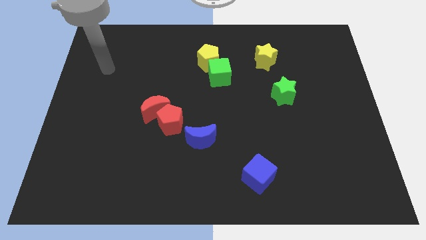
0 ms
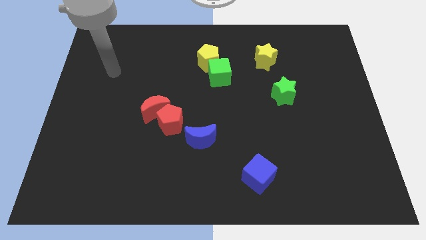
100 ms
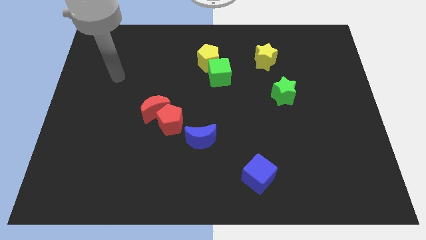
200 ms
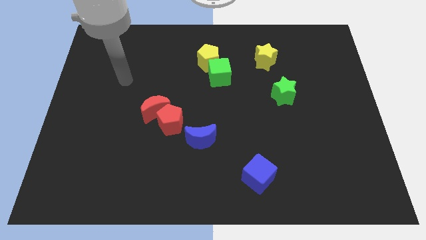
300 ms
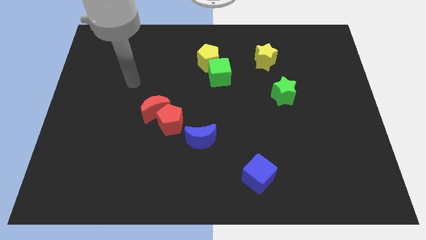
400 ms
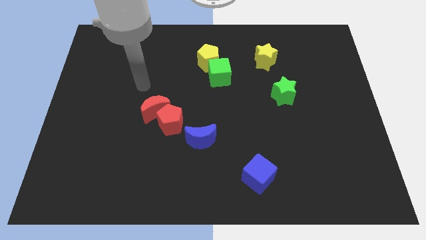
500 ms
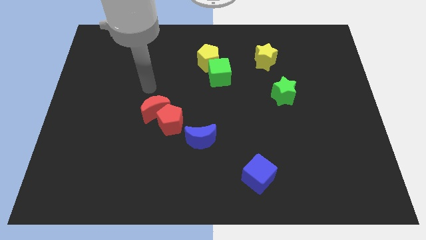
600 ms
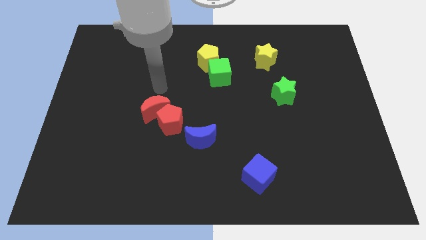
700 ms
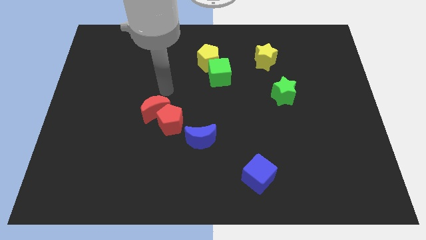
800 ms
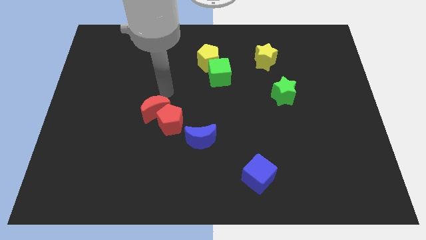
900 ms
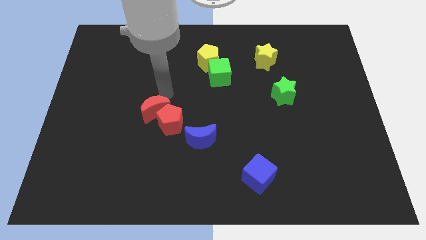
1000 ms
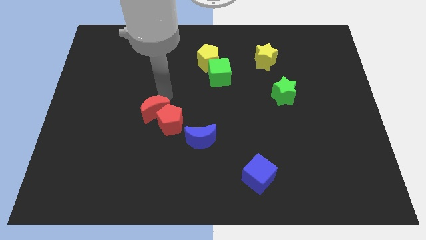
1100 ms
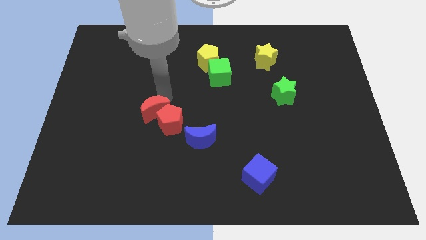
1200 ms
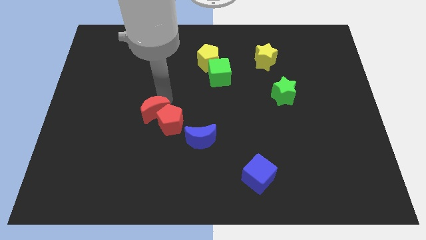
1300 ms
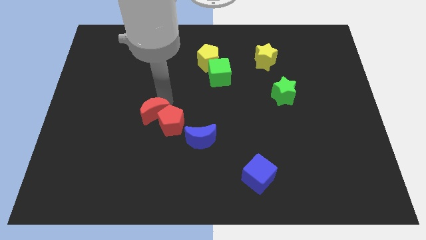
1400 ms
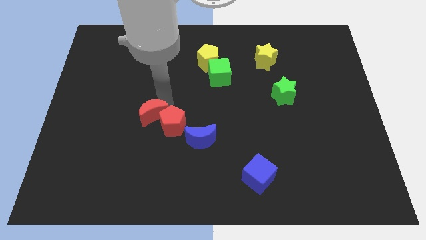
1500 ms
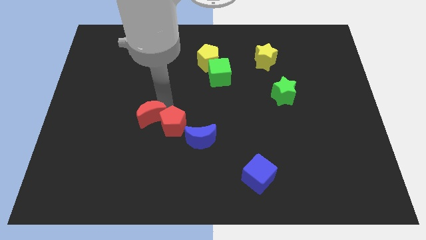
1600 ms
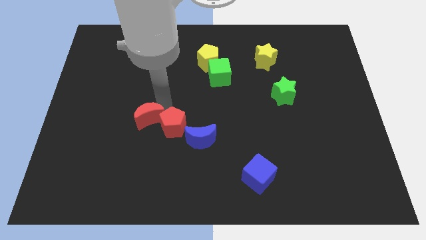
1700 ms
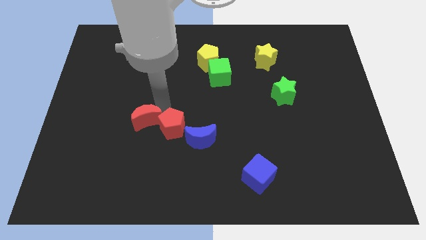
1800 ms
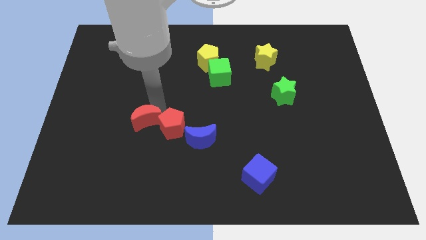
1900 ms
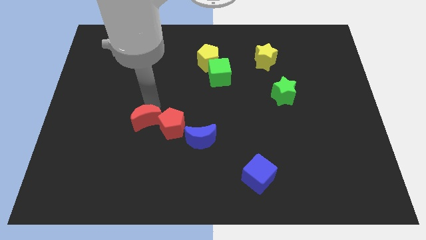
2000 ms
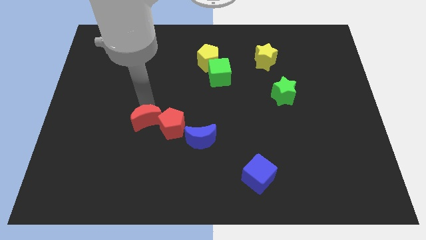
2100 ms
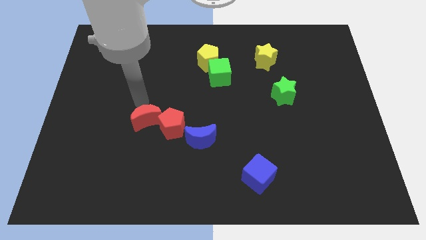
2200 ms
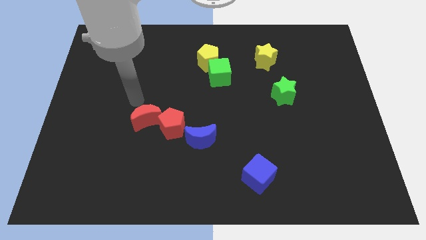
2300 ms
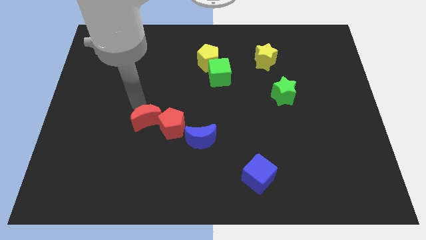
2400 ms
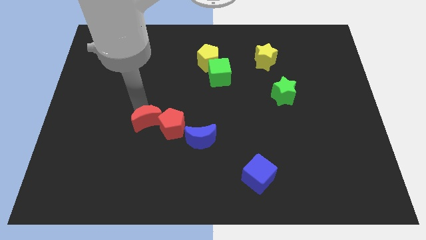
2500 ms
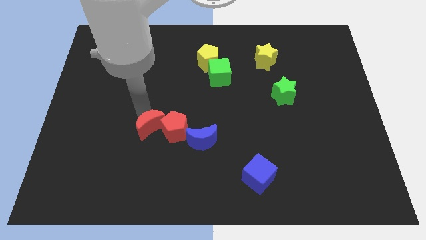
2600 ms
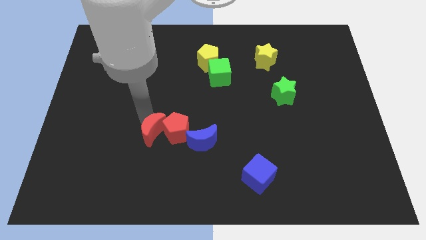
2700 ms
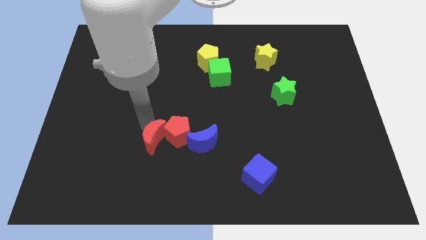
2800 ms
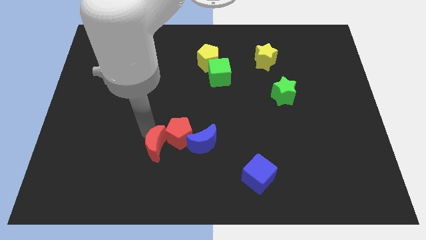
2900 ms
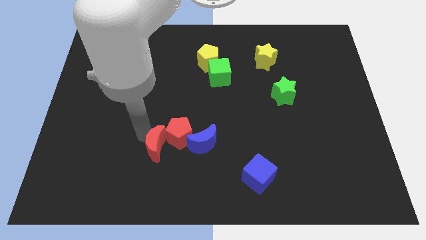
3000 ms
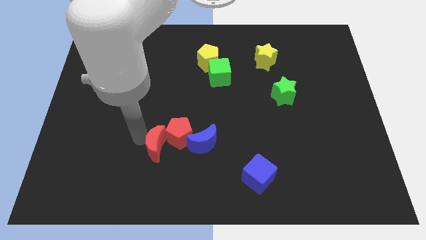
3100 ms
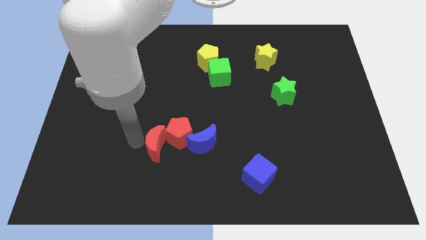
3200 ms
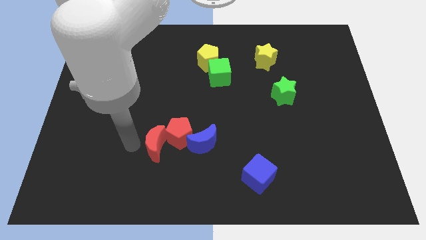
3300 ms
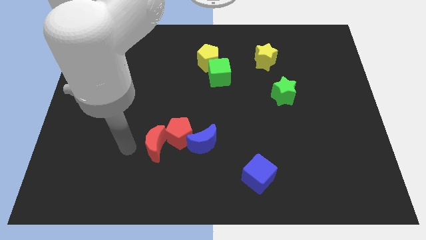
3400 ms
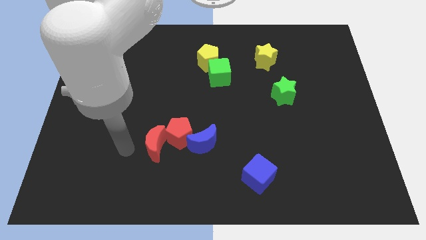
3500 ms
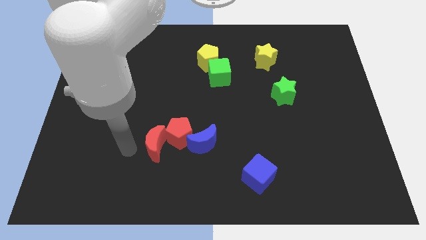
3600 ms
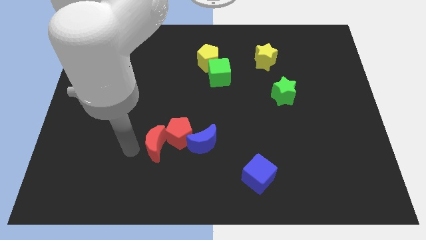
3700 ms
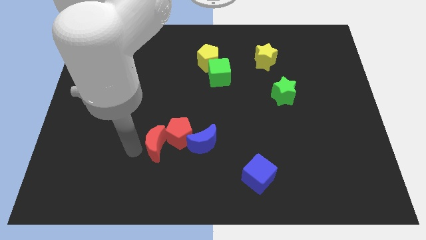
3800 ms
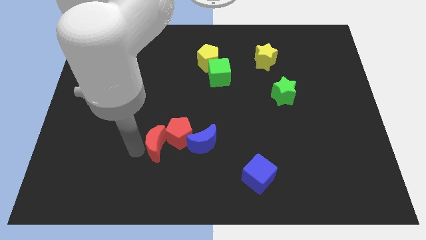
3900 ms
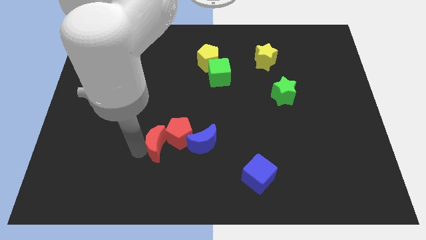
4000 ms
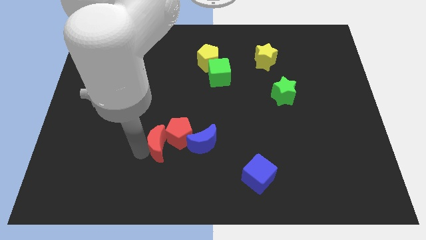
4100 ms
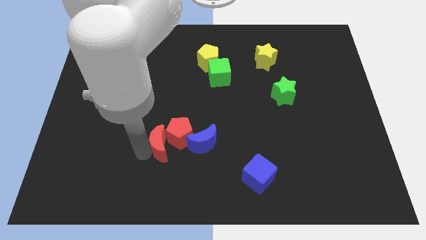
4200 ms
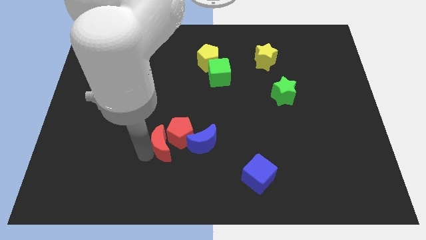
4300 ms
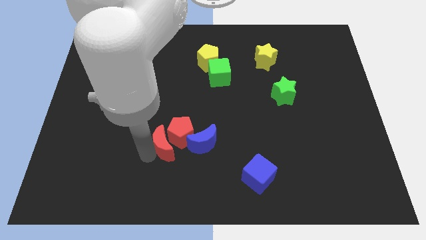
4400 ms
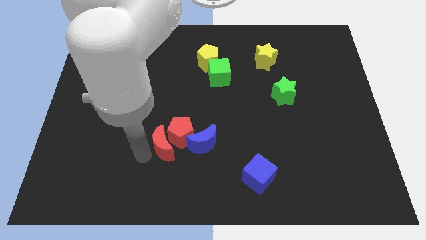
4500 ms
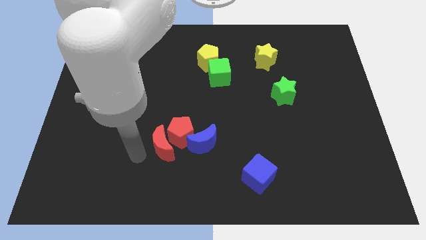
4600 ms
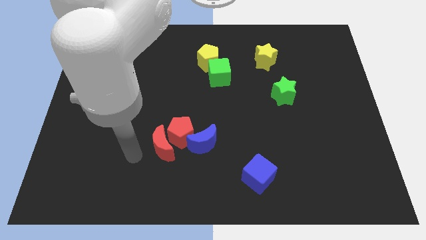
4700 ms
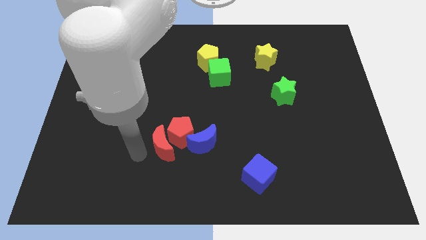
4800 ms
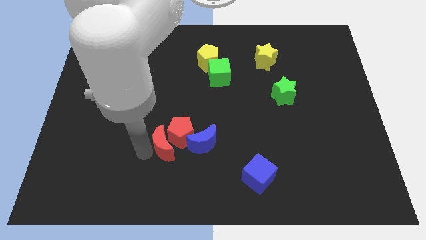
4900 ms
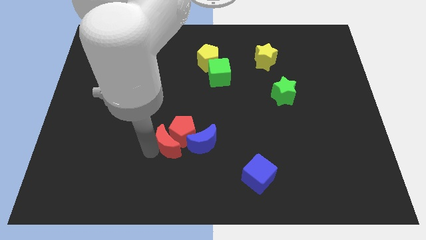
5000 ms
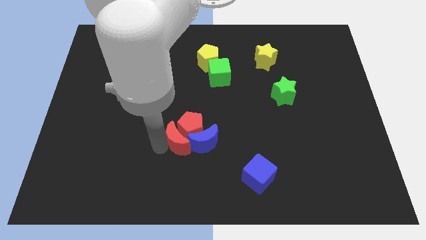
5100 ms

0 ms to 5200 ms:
put the red moon towards the blue moon

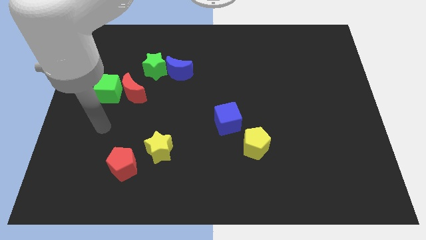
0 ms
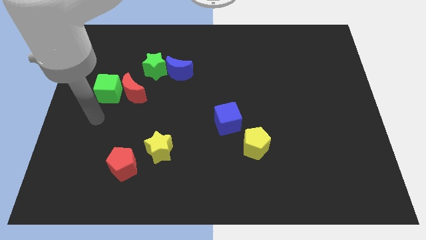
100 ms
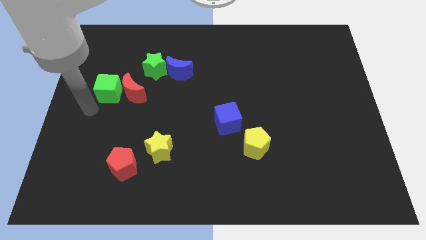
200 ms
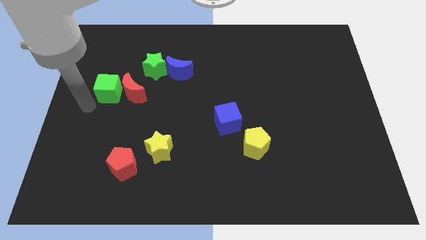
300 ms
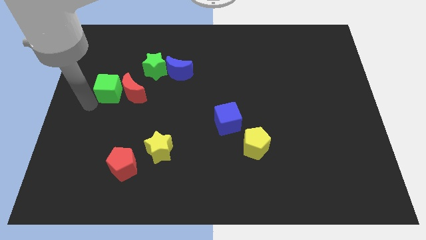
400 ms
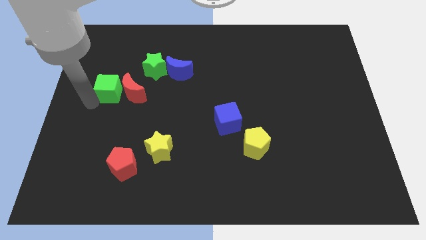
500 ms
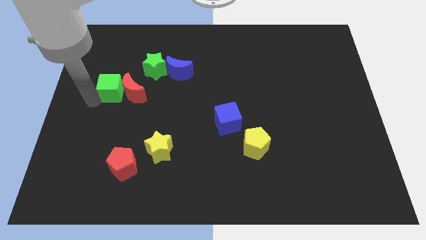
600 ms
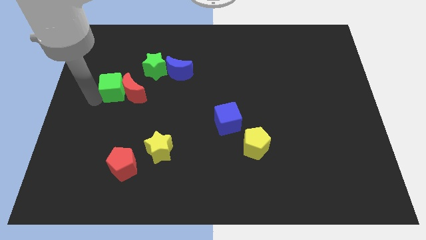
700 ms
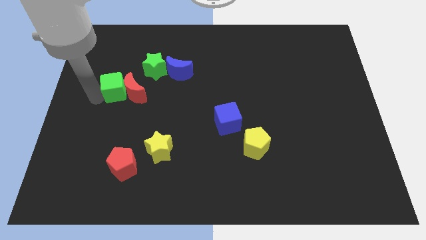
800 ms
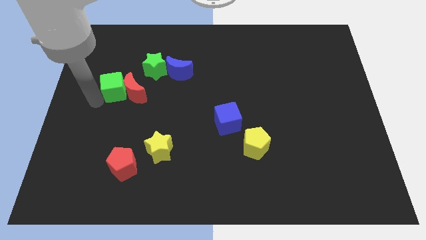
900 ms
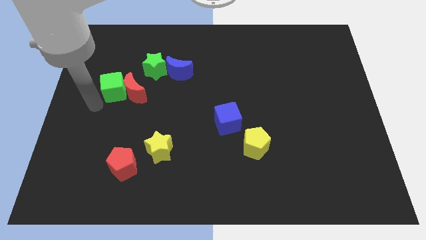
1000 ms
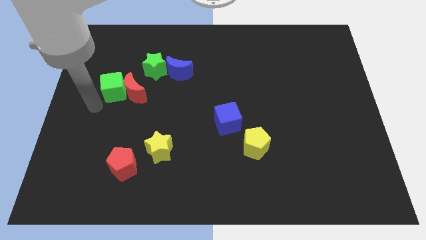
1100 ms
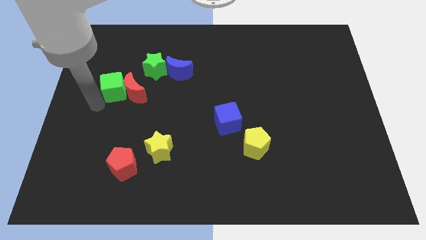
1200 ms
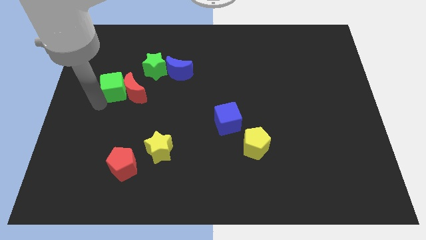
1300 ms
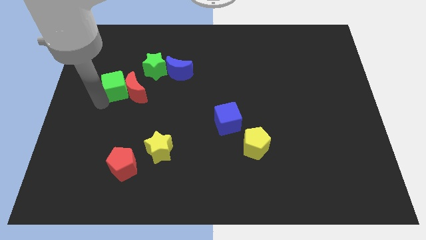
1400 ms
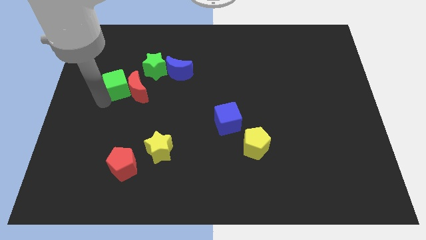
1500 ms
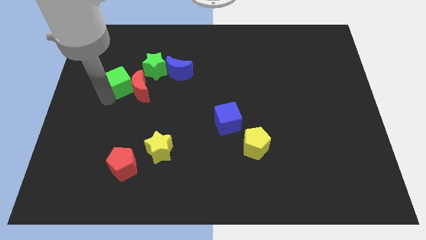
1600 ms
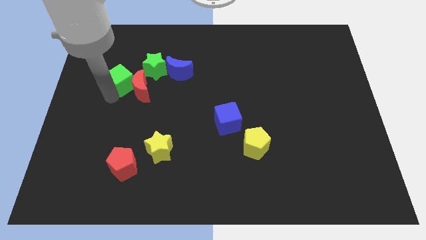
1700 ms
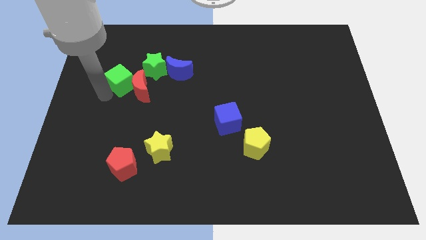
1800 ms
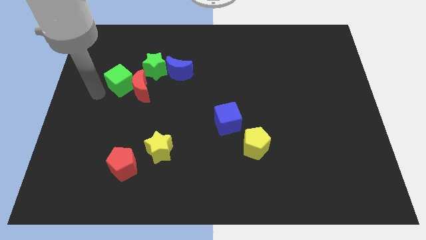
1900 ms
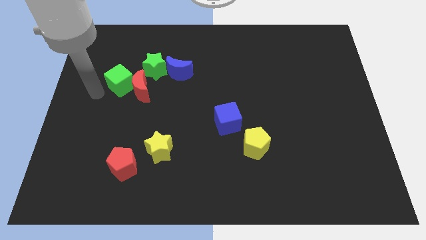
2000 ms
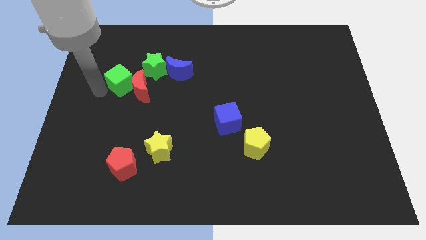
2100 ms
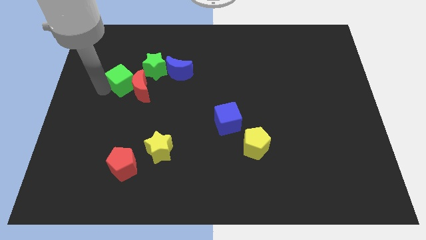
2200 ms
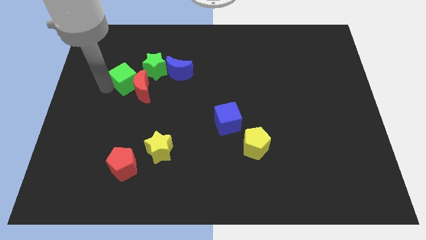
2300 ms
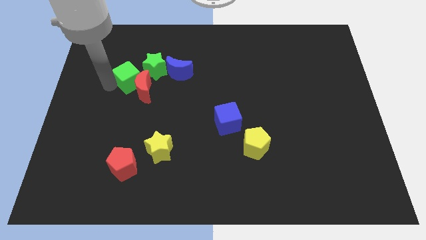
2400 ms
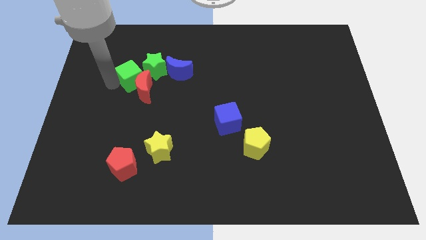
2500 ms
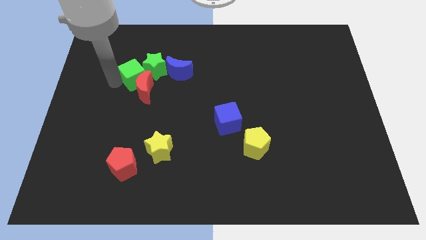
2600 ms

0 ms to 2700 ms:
slide the green cube towards the green star
